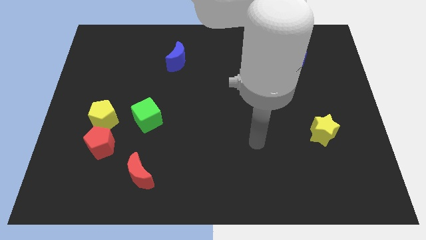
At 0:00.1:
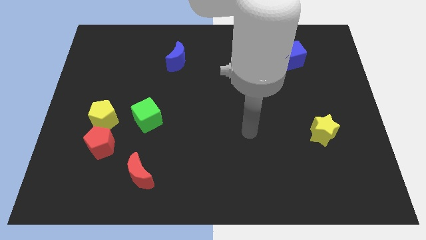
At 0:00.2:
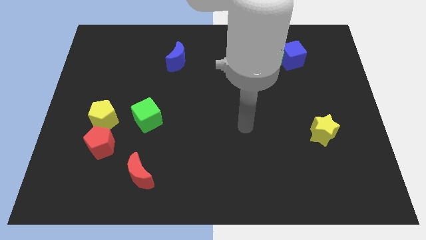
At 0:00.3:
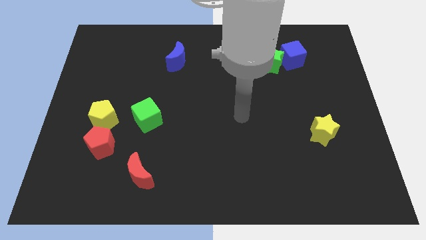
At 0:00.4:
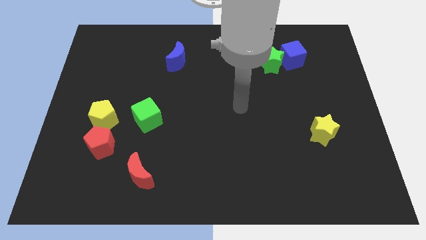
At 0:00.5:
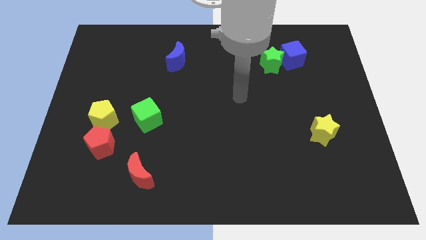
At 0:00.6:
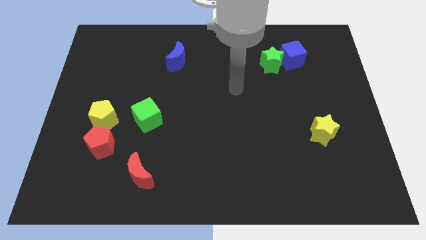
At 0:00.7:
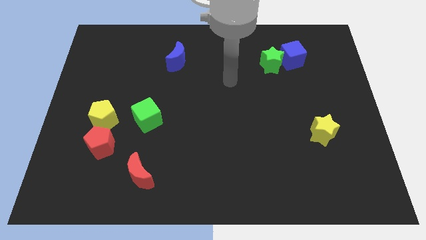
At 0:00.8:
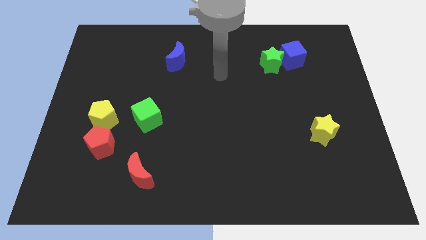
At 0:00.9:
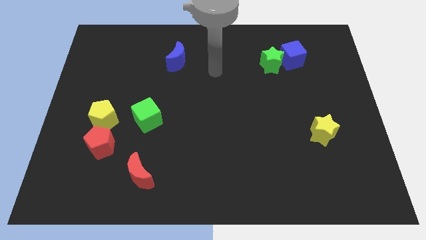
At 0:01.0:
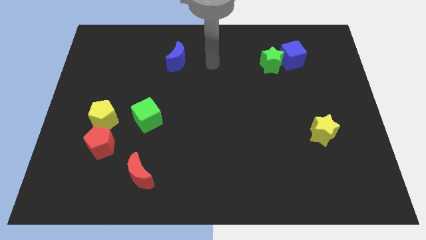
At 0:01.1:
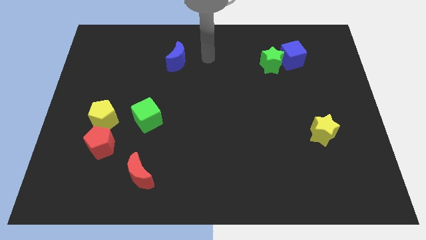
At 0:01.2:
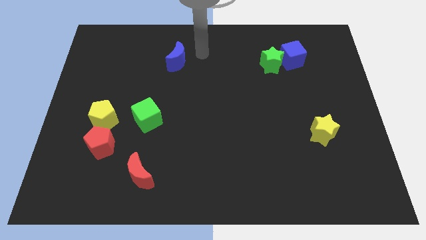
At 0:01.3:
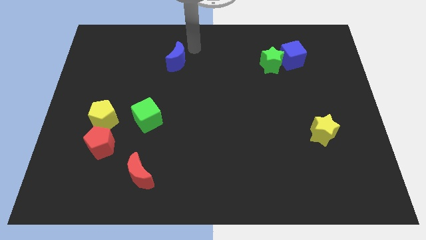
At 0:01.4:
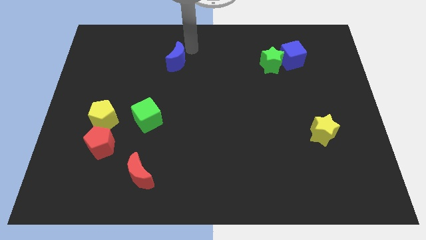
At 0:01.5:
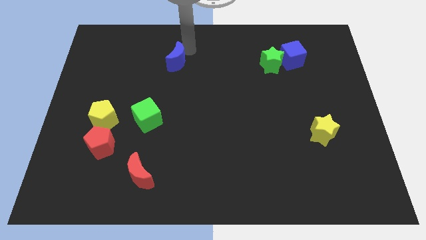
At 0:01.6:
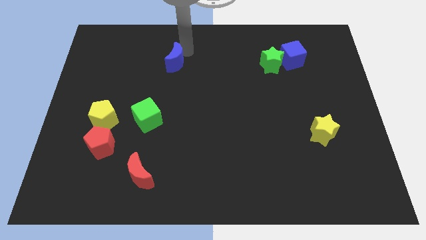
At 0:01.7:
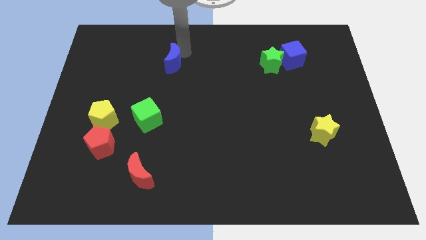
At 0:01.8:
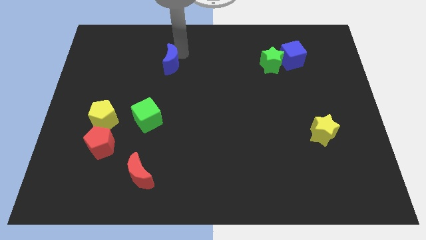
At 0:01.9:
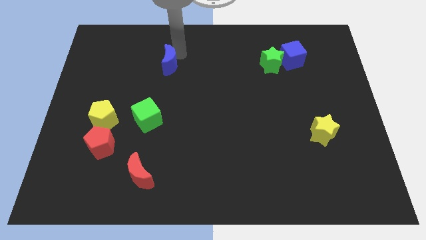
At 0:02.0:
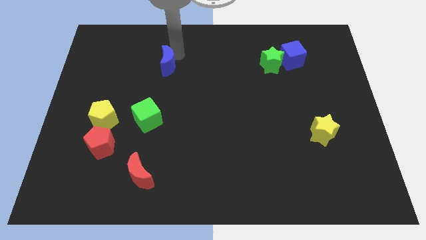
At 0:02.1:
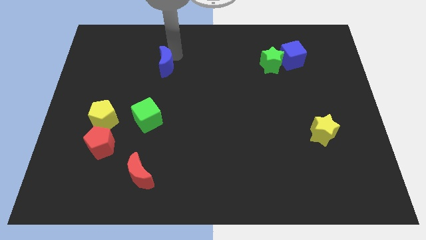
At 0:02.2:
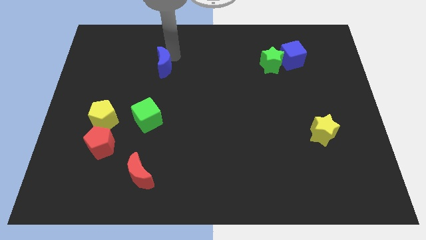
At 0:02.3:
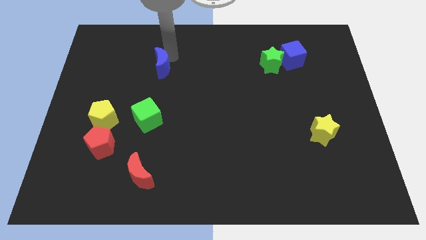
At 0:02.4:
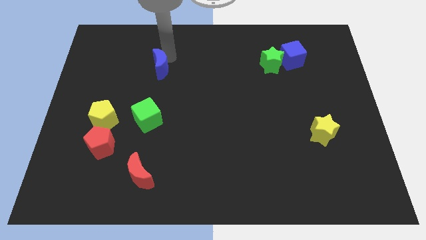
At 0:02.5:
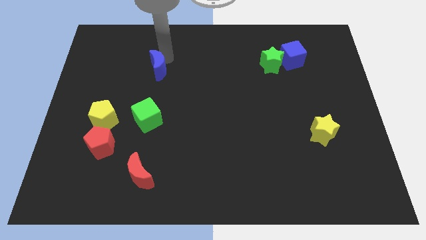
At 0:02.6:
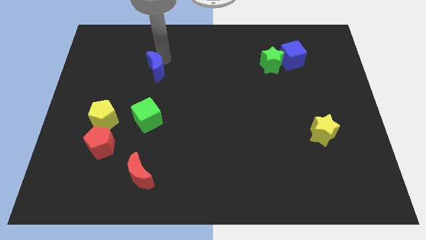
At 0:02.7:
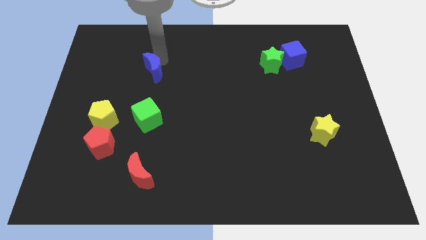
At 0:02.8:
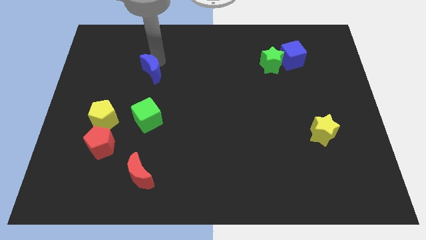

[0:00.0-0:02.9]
slightly move the blue moon down and left

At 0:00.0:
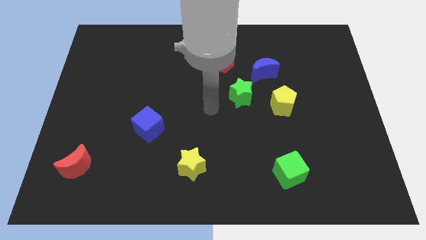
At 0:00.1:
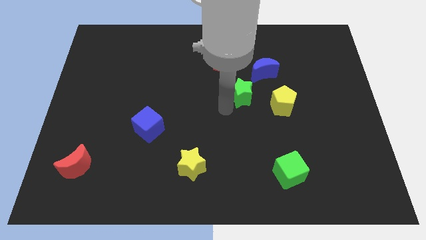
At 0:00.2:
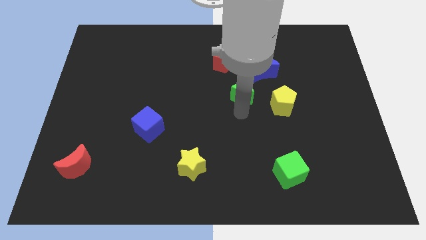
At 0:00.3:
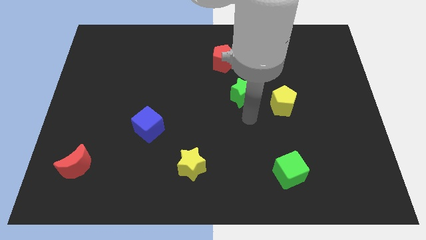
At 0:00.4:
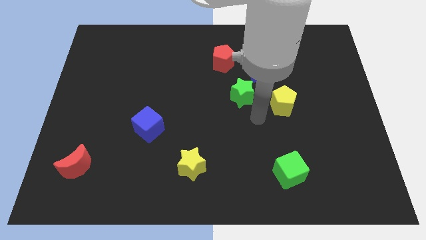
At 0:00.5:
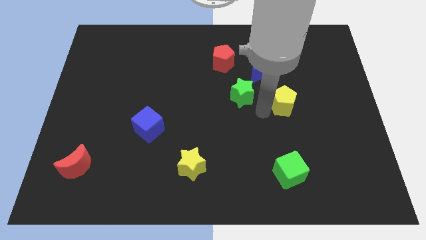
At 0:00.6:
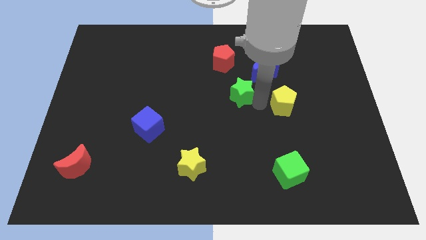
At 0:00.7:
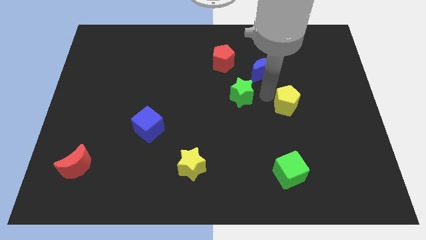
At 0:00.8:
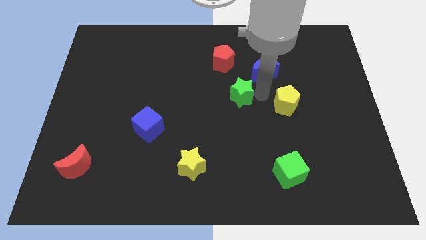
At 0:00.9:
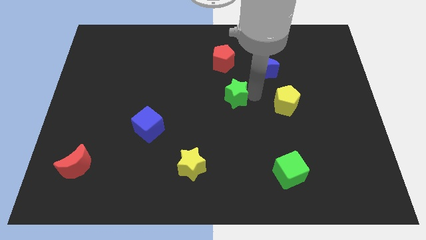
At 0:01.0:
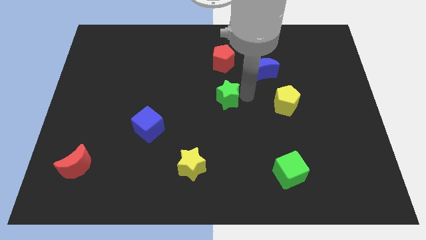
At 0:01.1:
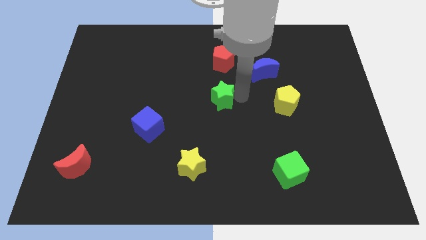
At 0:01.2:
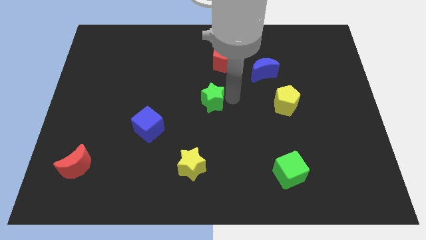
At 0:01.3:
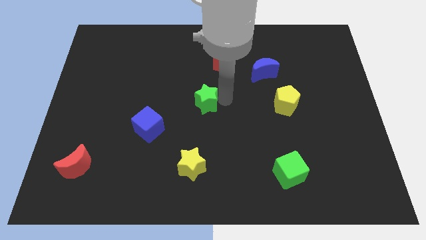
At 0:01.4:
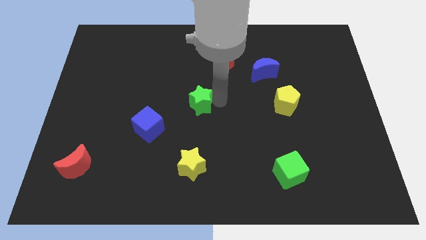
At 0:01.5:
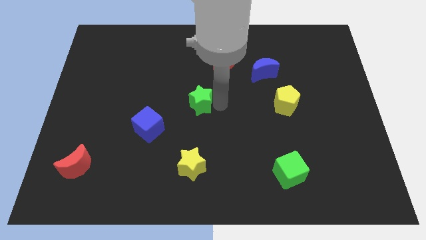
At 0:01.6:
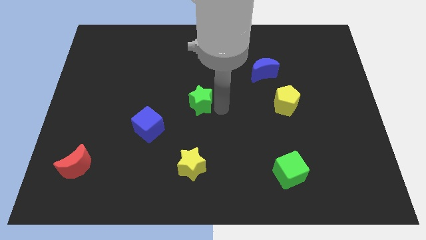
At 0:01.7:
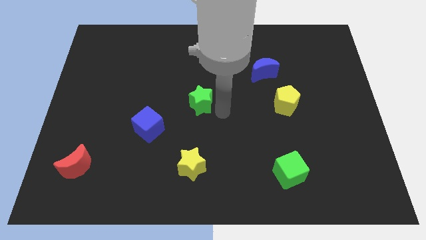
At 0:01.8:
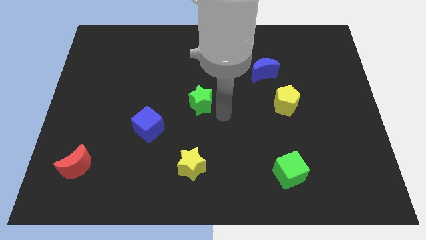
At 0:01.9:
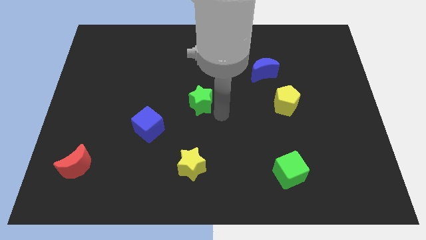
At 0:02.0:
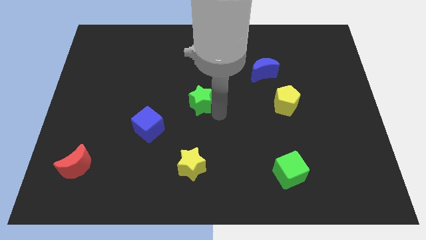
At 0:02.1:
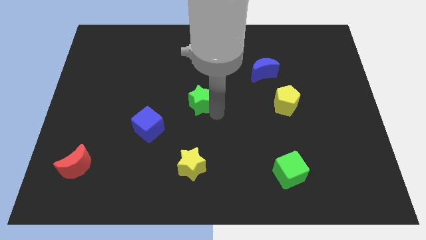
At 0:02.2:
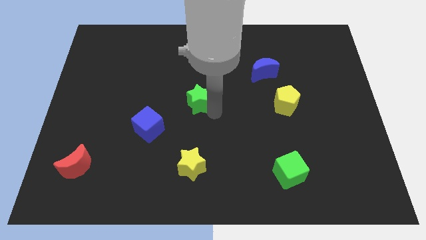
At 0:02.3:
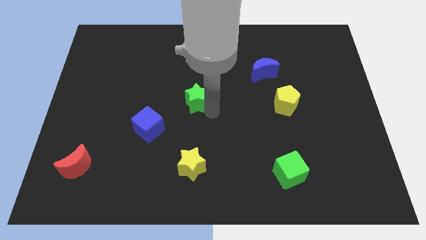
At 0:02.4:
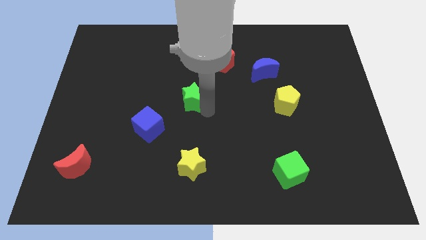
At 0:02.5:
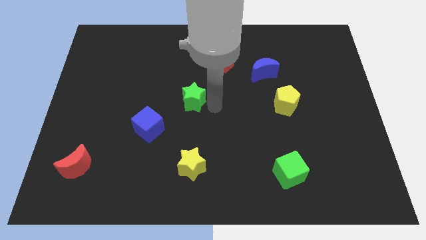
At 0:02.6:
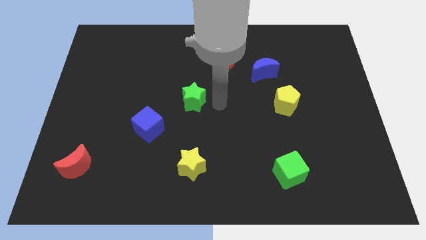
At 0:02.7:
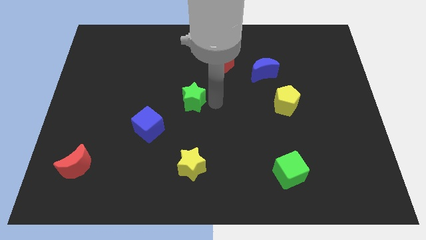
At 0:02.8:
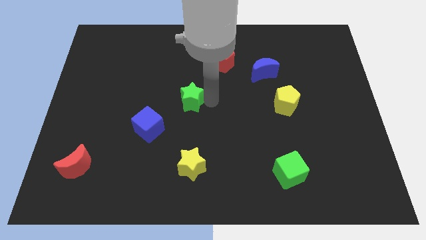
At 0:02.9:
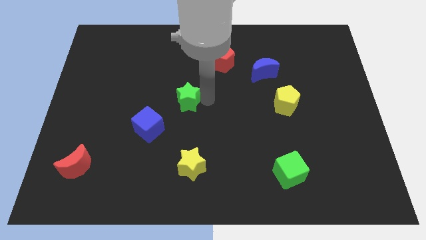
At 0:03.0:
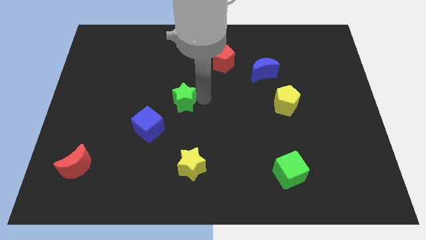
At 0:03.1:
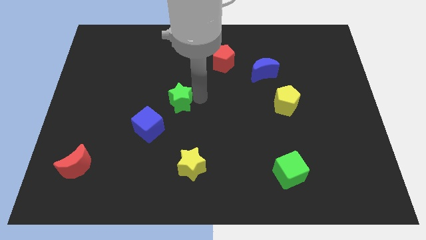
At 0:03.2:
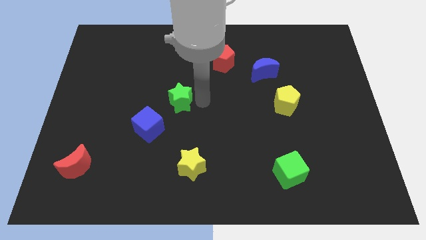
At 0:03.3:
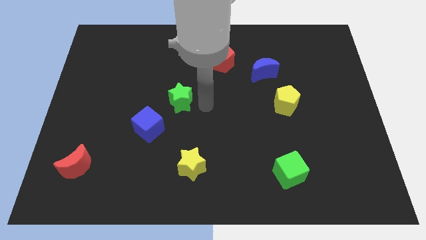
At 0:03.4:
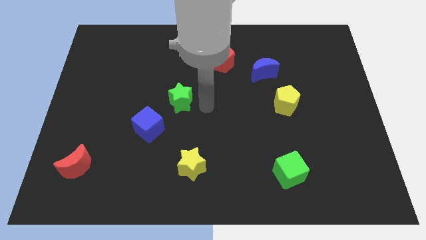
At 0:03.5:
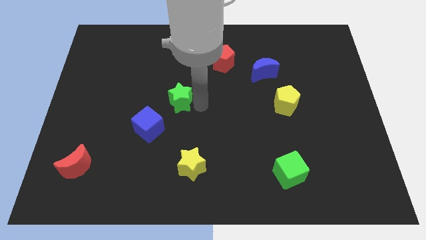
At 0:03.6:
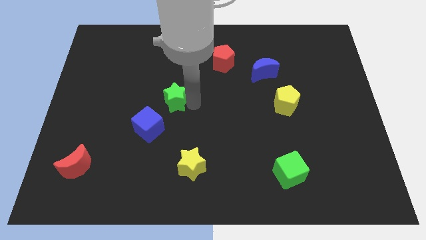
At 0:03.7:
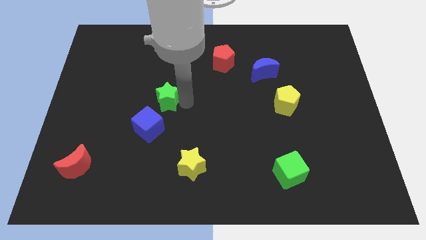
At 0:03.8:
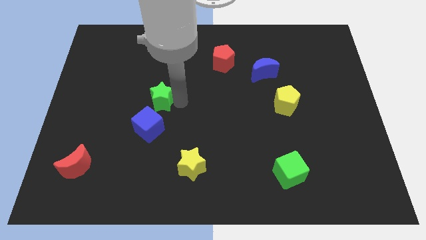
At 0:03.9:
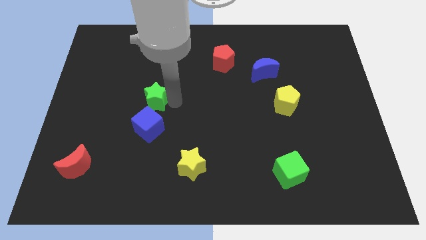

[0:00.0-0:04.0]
push the green star left

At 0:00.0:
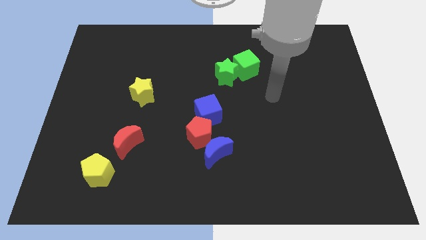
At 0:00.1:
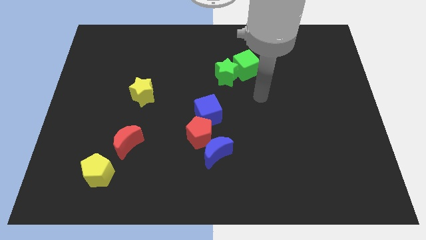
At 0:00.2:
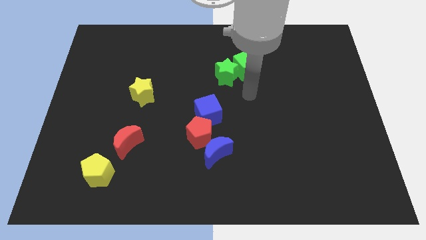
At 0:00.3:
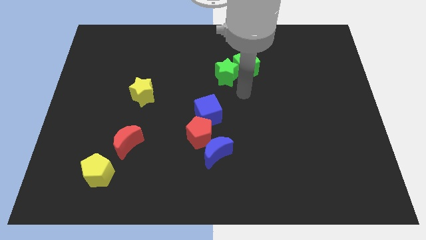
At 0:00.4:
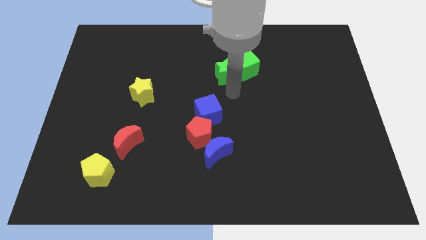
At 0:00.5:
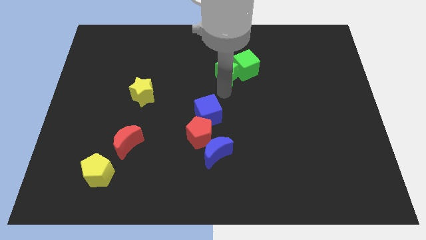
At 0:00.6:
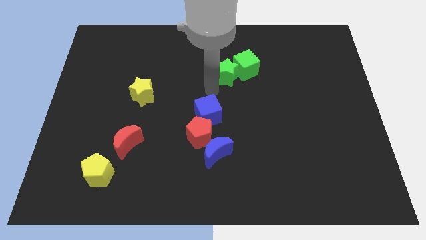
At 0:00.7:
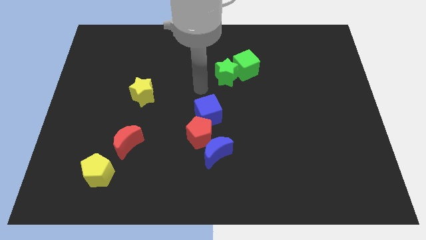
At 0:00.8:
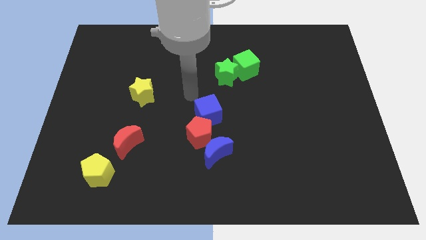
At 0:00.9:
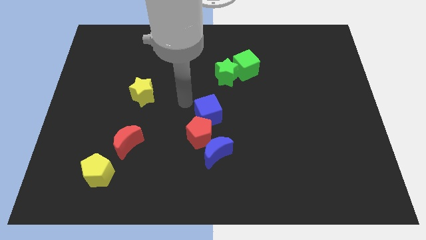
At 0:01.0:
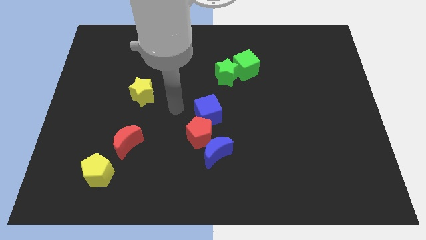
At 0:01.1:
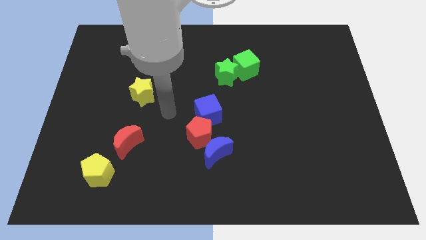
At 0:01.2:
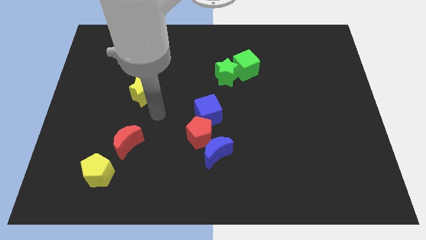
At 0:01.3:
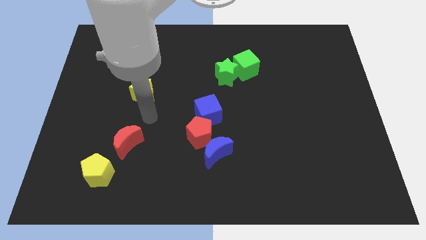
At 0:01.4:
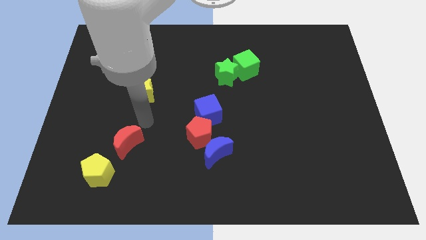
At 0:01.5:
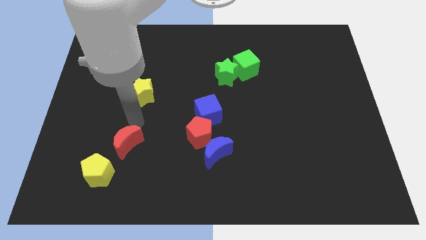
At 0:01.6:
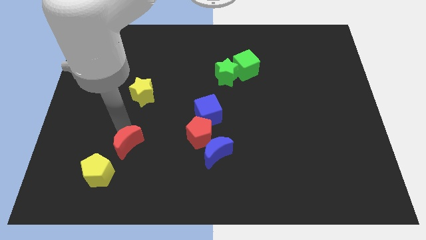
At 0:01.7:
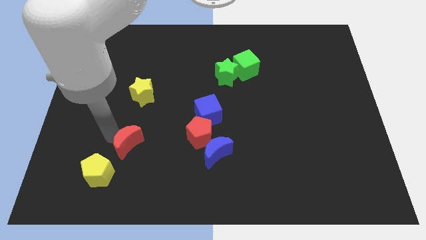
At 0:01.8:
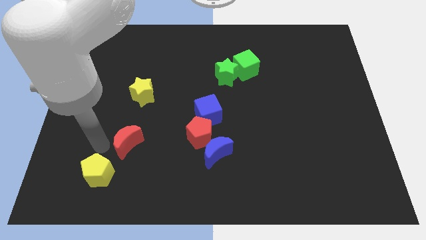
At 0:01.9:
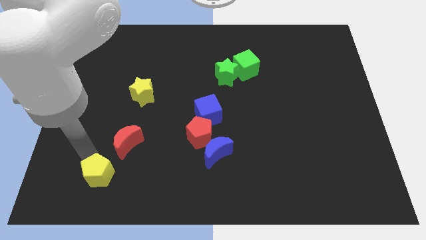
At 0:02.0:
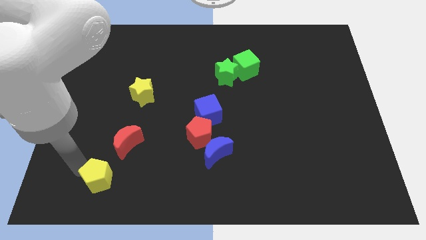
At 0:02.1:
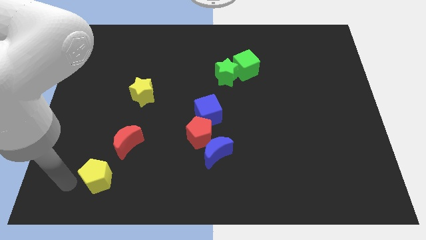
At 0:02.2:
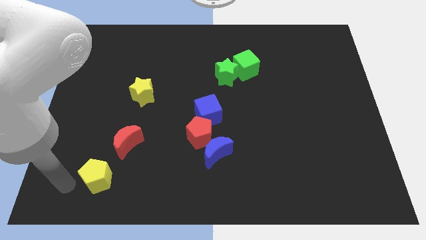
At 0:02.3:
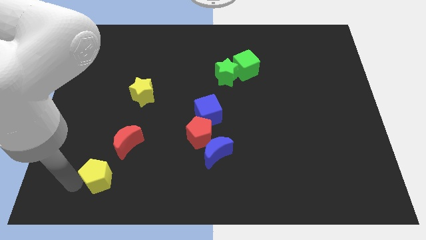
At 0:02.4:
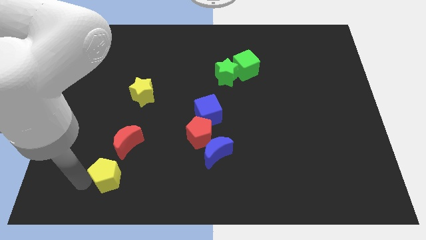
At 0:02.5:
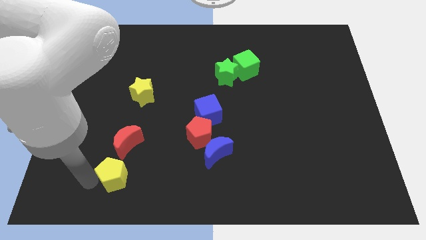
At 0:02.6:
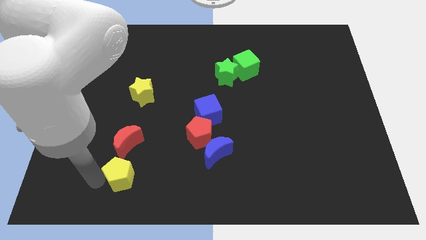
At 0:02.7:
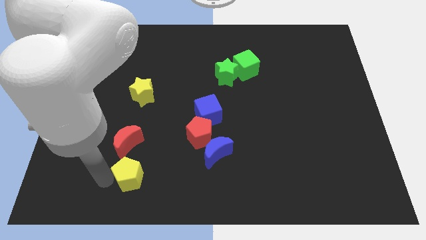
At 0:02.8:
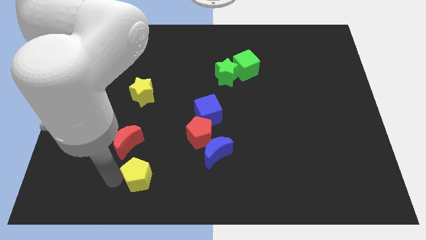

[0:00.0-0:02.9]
push the yellow pentagon to the right slightly
